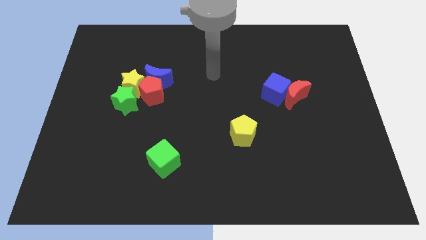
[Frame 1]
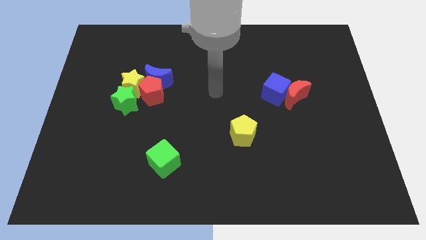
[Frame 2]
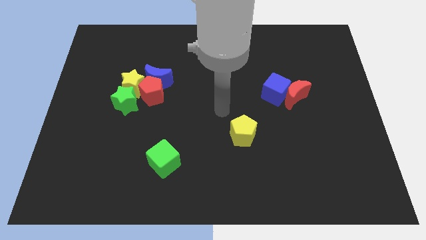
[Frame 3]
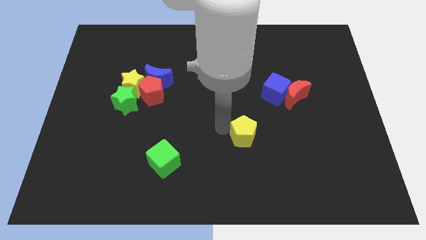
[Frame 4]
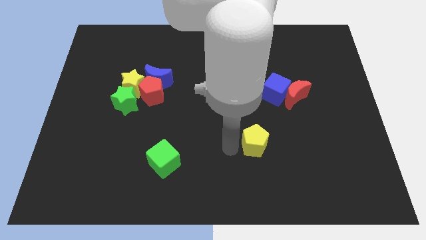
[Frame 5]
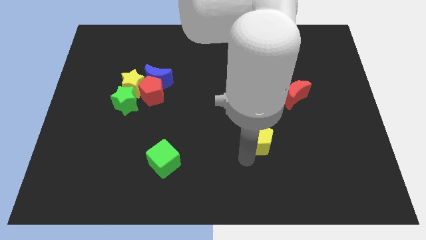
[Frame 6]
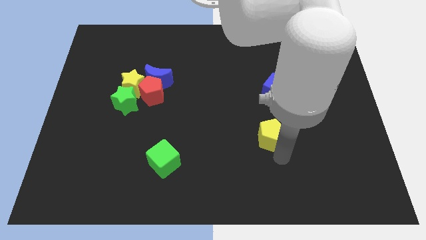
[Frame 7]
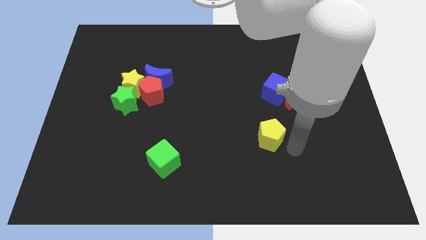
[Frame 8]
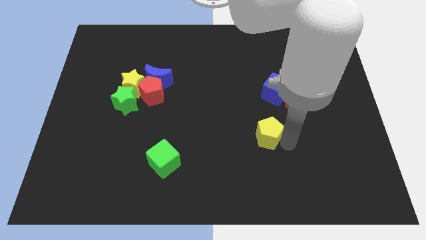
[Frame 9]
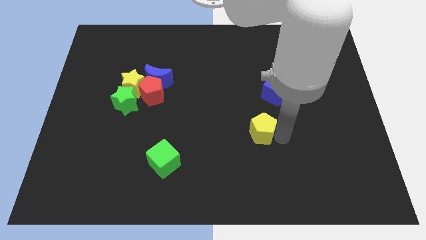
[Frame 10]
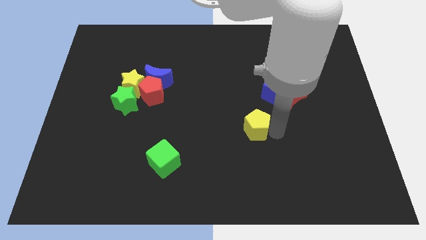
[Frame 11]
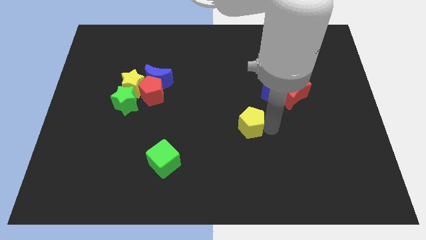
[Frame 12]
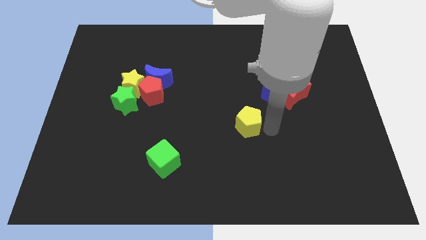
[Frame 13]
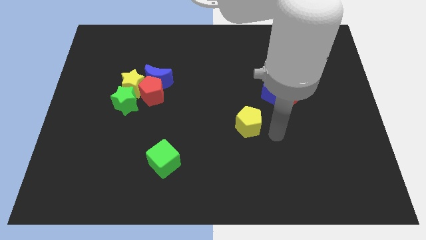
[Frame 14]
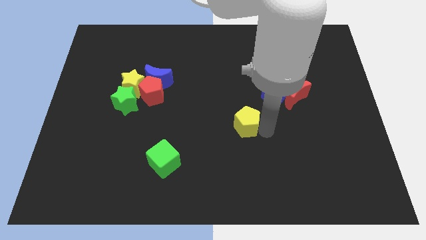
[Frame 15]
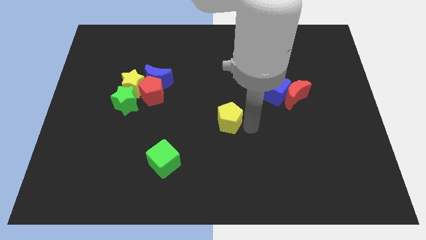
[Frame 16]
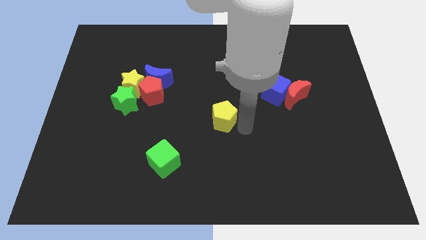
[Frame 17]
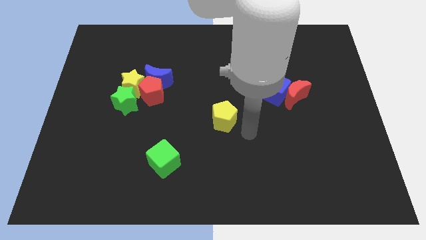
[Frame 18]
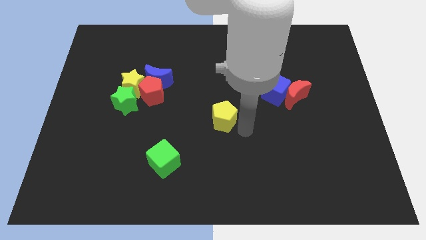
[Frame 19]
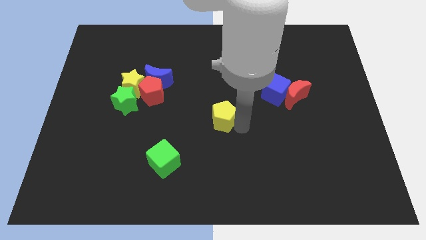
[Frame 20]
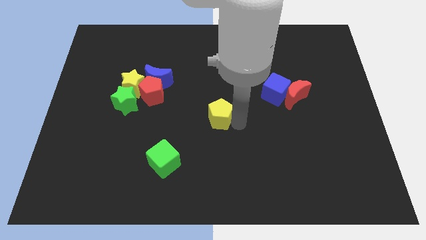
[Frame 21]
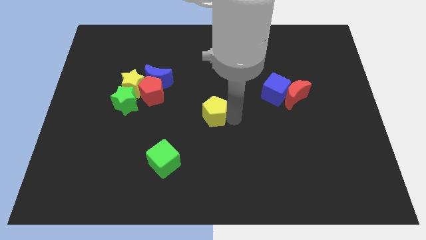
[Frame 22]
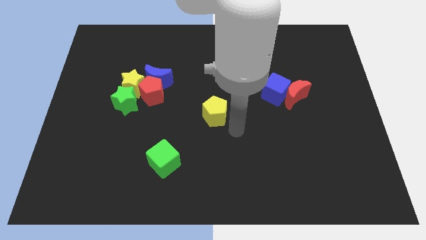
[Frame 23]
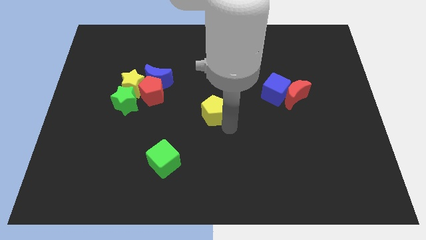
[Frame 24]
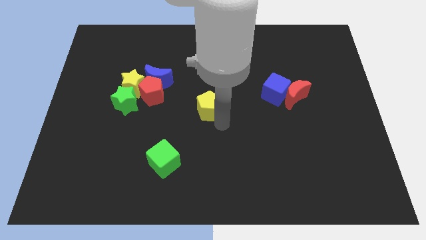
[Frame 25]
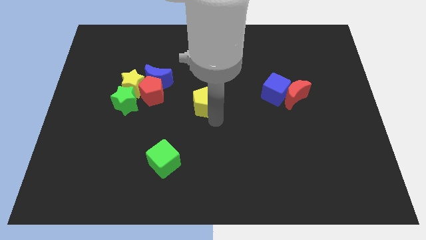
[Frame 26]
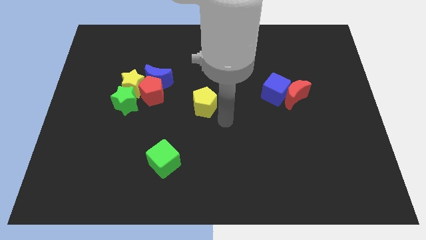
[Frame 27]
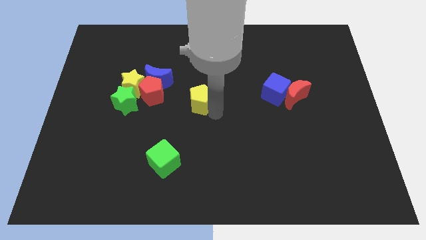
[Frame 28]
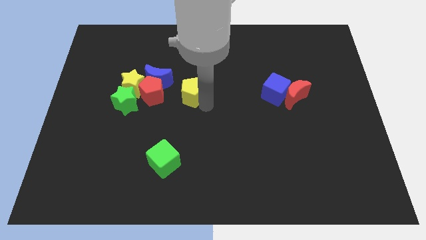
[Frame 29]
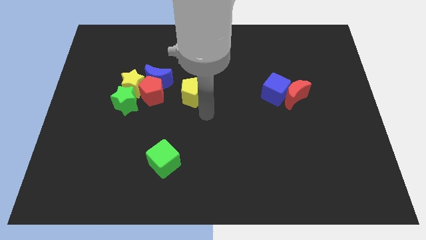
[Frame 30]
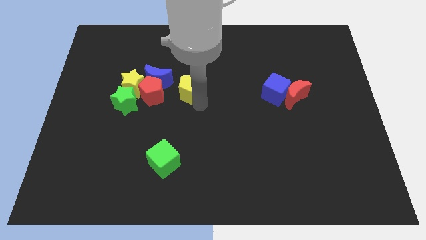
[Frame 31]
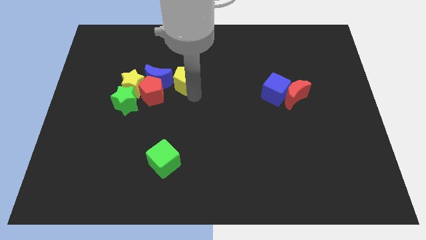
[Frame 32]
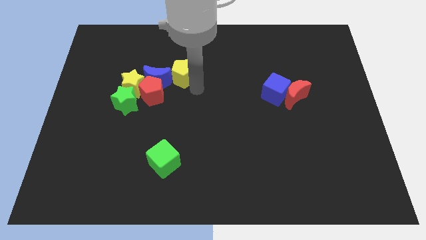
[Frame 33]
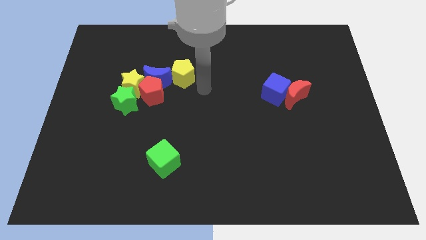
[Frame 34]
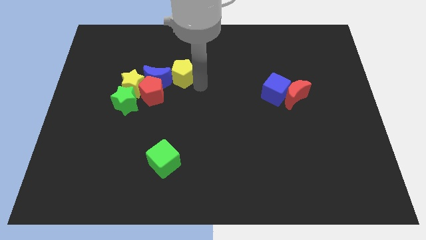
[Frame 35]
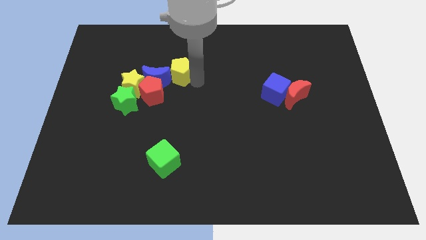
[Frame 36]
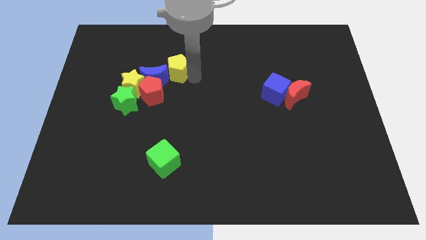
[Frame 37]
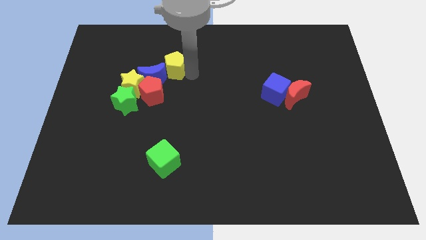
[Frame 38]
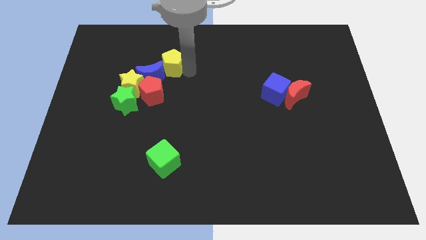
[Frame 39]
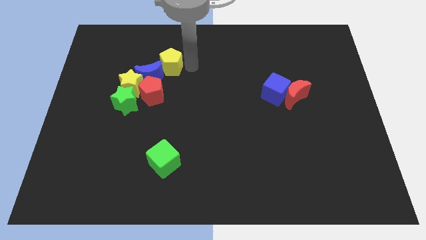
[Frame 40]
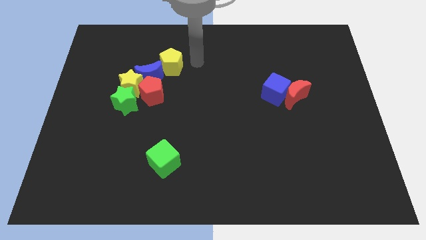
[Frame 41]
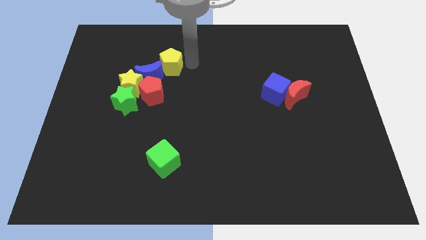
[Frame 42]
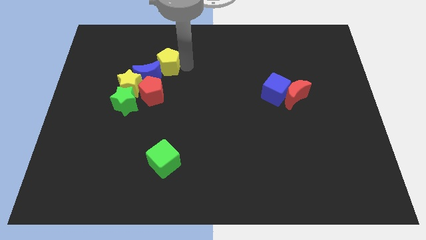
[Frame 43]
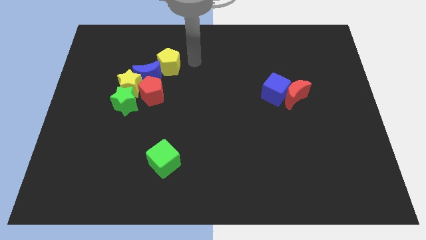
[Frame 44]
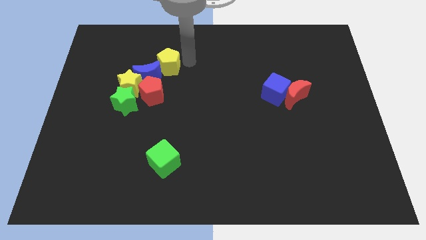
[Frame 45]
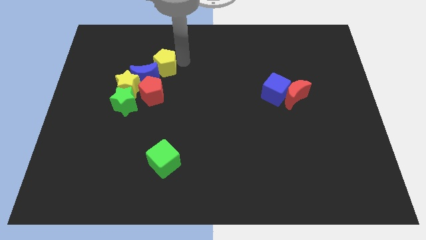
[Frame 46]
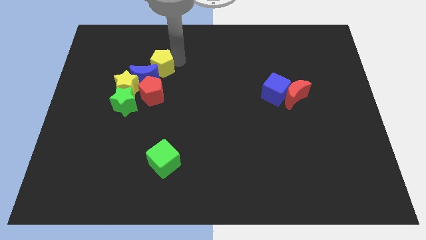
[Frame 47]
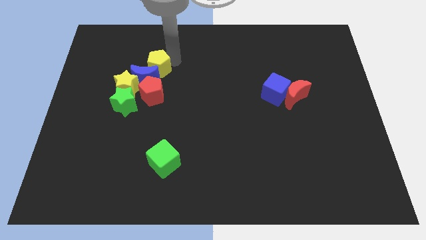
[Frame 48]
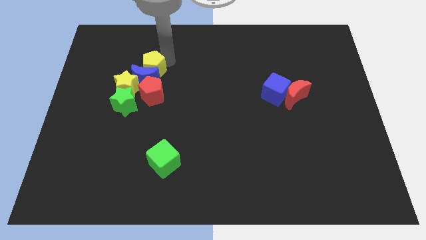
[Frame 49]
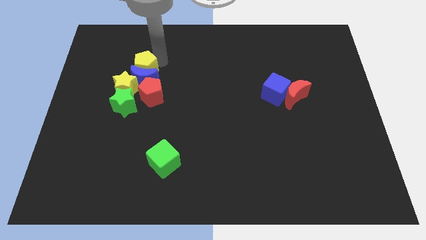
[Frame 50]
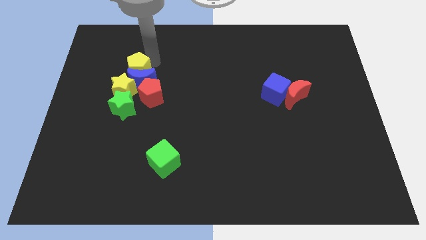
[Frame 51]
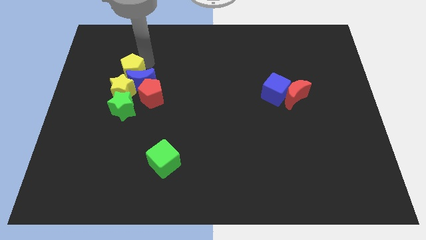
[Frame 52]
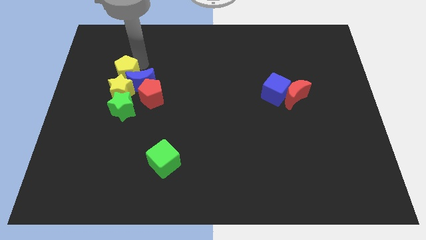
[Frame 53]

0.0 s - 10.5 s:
push the yellow pentagon towards the yellow star

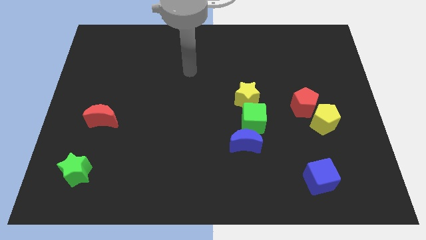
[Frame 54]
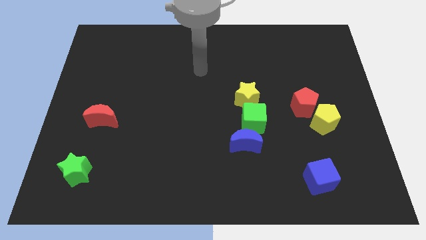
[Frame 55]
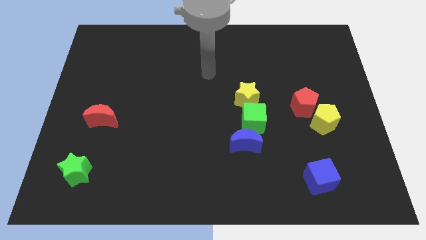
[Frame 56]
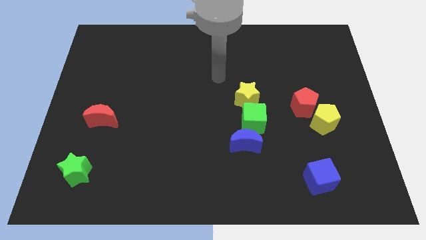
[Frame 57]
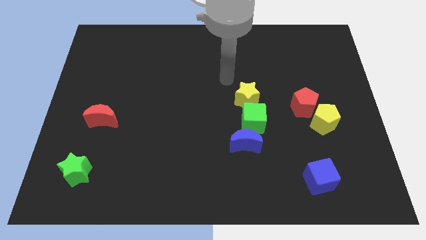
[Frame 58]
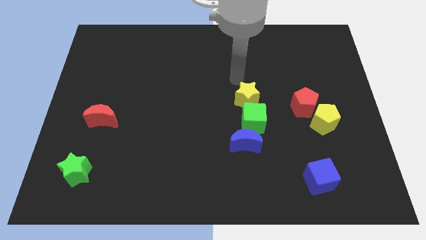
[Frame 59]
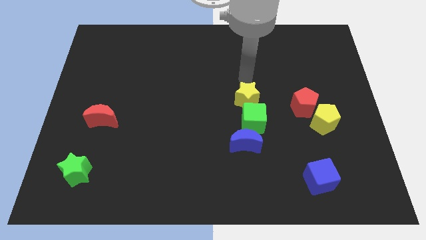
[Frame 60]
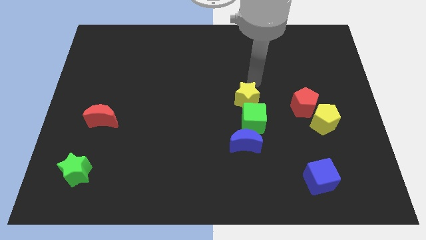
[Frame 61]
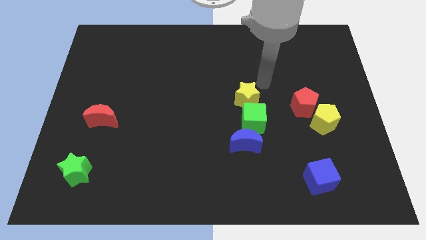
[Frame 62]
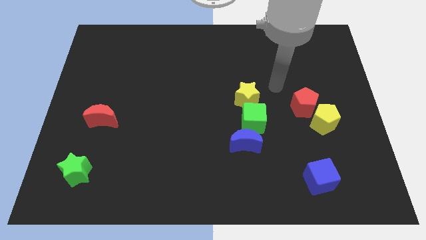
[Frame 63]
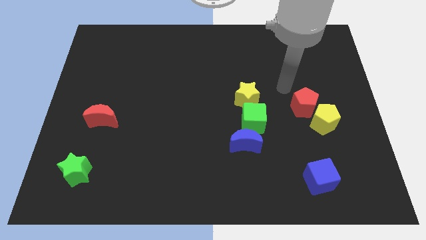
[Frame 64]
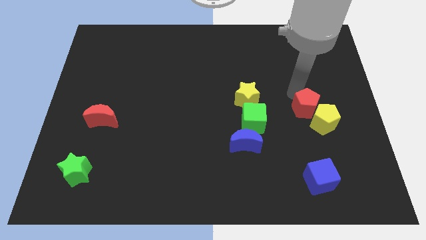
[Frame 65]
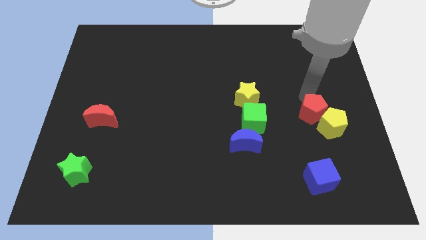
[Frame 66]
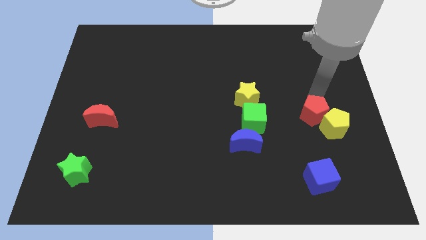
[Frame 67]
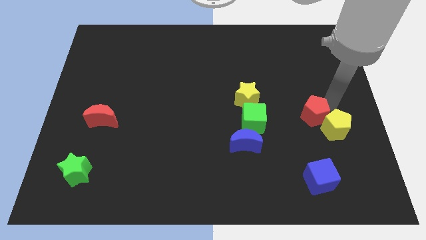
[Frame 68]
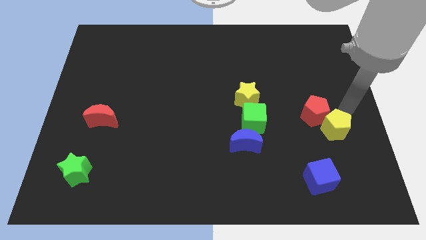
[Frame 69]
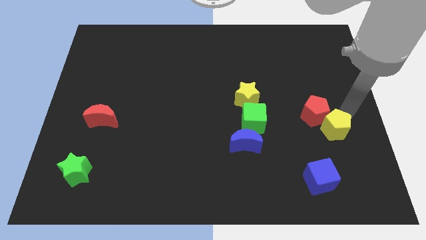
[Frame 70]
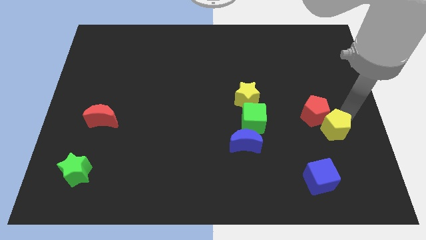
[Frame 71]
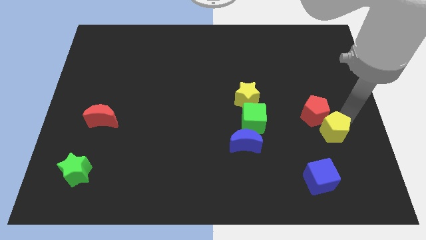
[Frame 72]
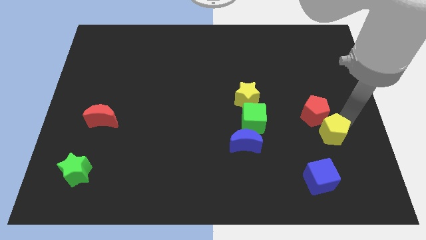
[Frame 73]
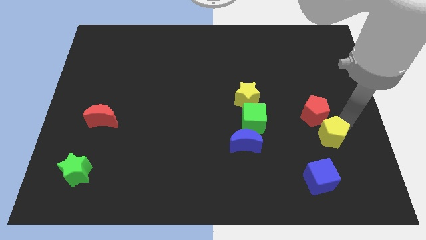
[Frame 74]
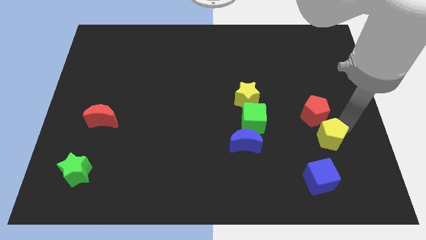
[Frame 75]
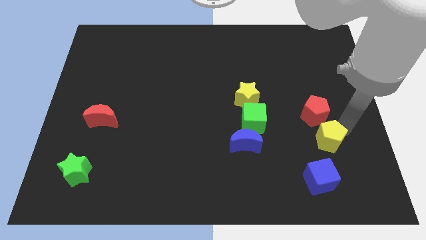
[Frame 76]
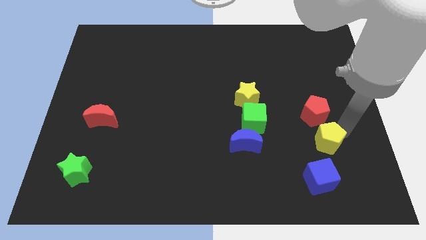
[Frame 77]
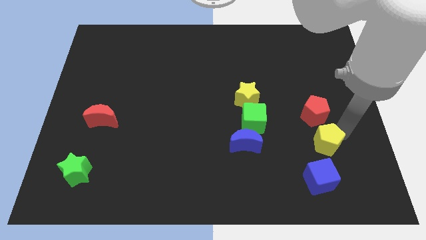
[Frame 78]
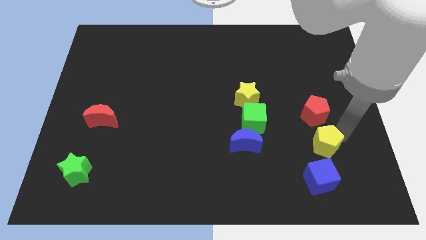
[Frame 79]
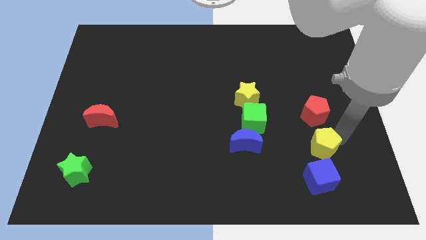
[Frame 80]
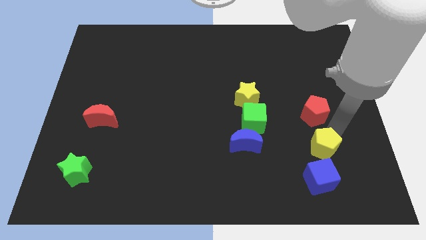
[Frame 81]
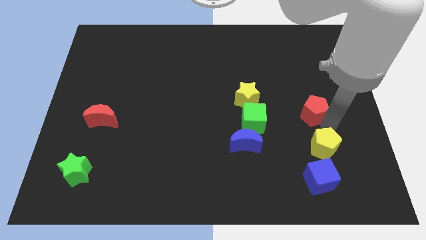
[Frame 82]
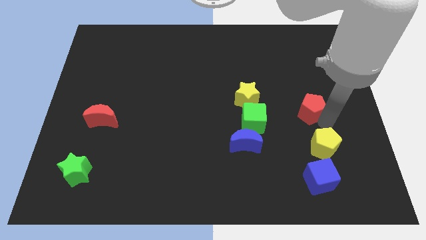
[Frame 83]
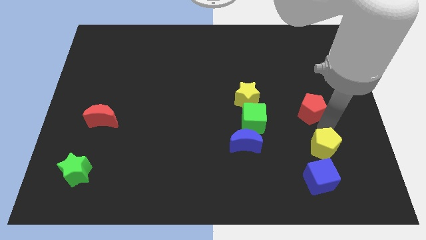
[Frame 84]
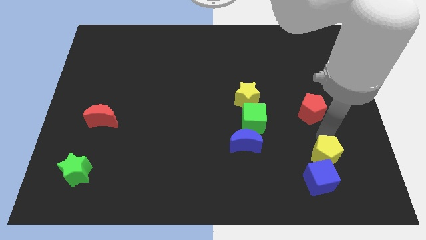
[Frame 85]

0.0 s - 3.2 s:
push the yellow pentagon to the blue cube

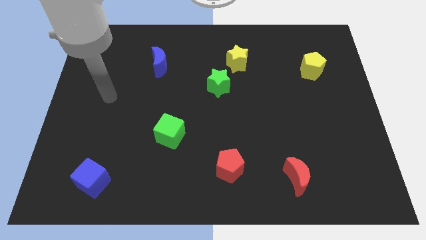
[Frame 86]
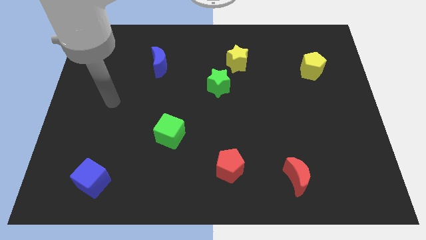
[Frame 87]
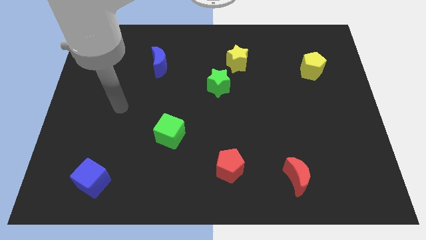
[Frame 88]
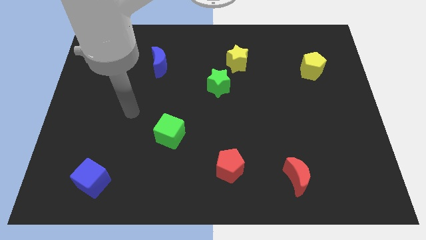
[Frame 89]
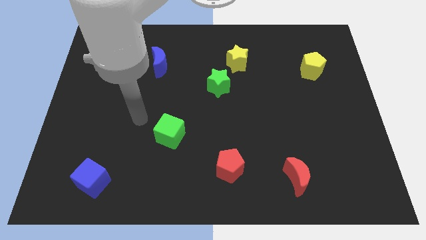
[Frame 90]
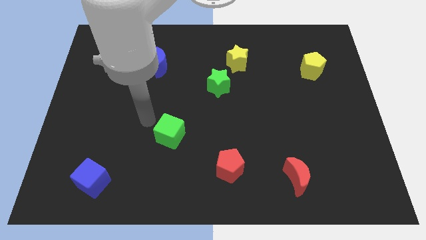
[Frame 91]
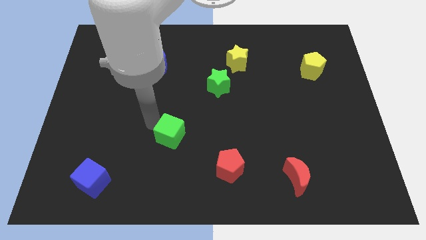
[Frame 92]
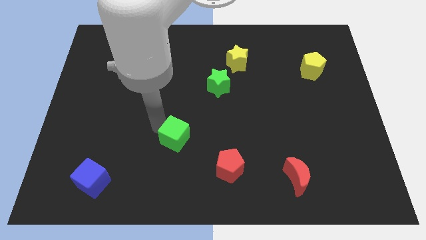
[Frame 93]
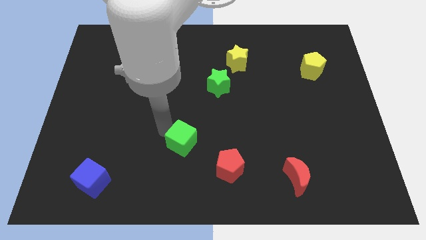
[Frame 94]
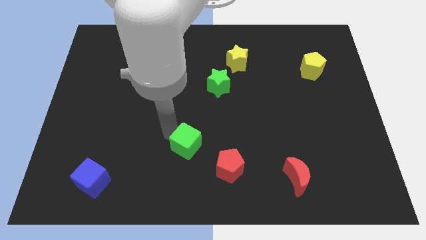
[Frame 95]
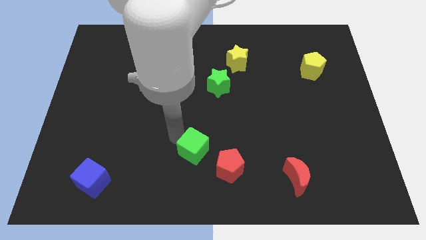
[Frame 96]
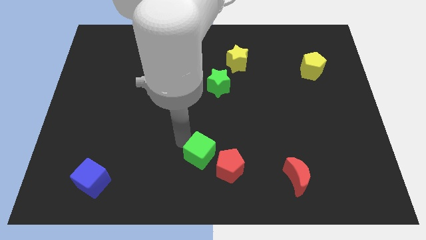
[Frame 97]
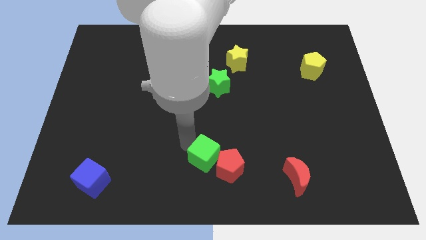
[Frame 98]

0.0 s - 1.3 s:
move the green cube to the red pentagon
